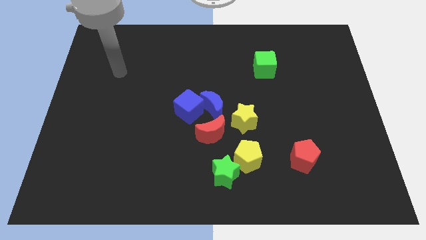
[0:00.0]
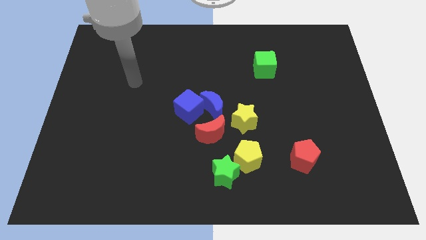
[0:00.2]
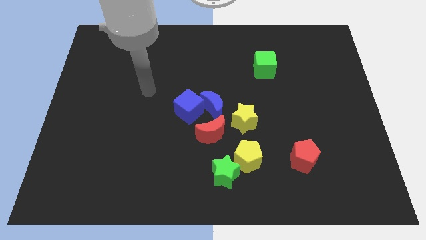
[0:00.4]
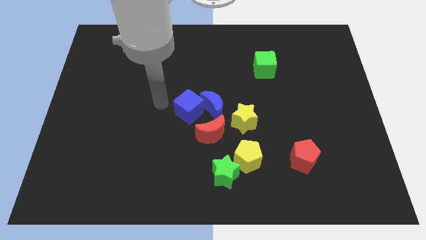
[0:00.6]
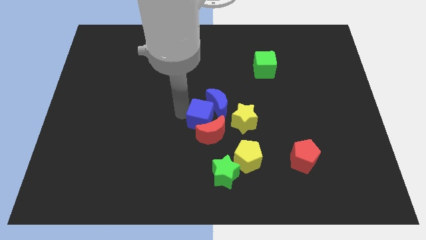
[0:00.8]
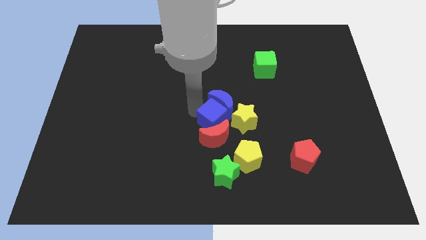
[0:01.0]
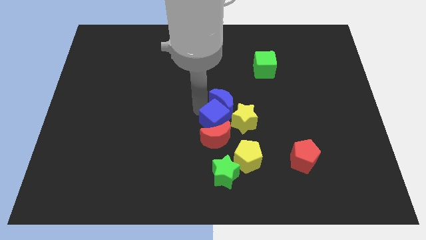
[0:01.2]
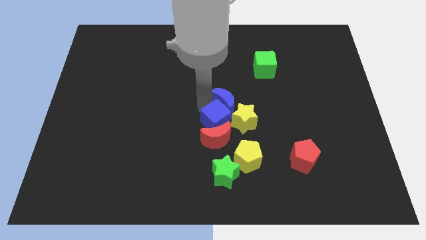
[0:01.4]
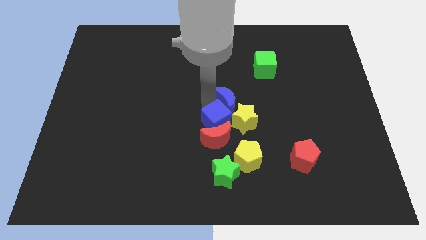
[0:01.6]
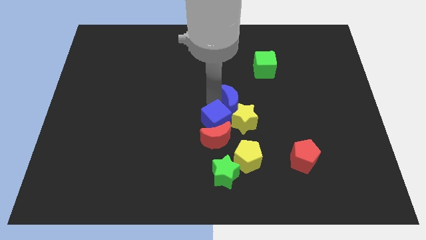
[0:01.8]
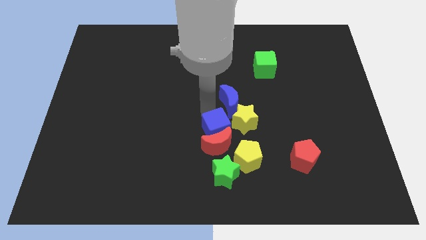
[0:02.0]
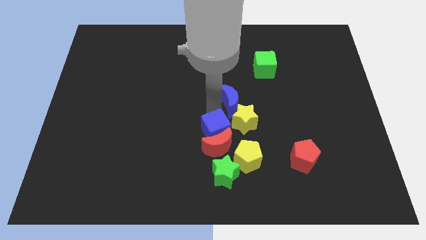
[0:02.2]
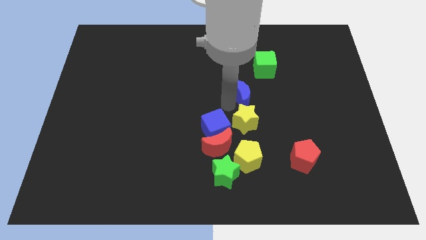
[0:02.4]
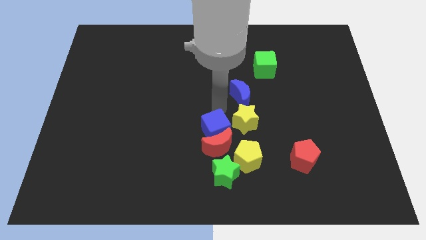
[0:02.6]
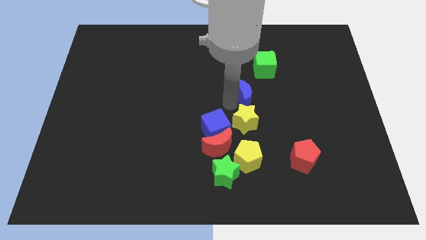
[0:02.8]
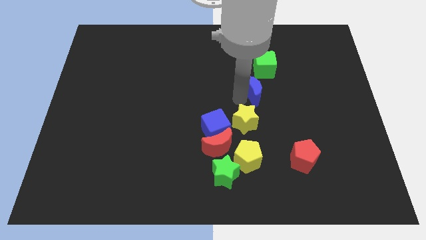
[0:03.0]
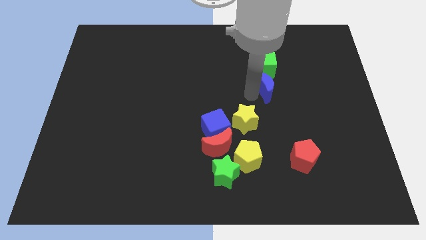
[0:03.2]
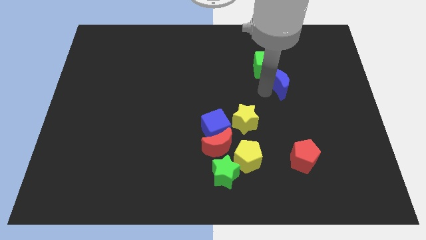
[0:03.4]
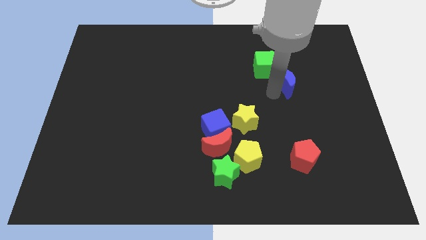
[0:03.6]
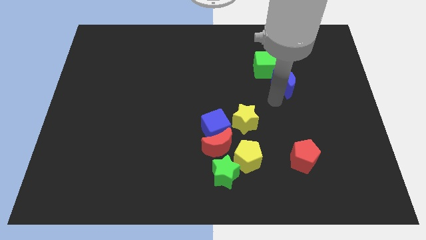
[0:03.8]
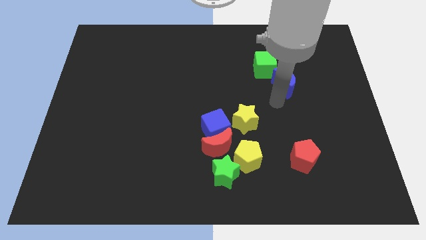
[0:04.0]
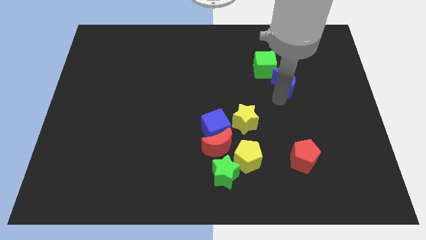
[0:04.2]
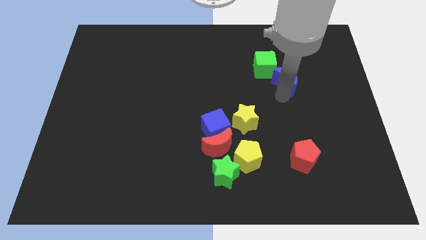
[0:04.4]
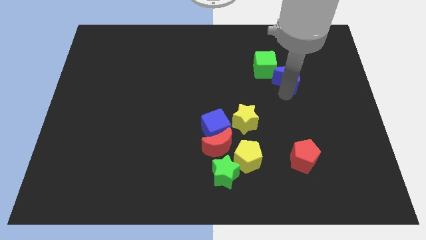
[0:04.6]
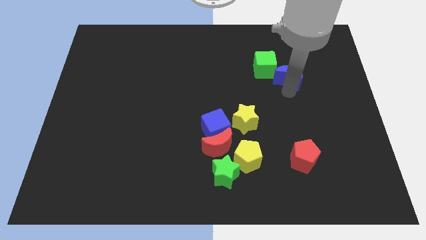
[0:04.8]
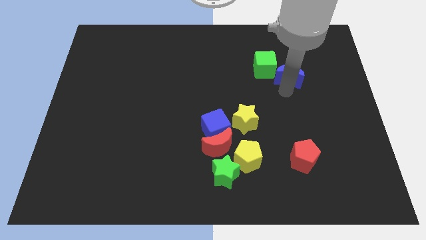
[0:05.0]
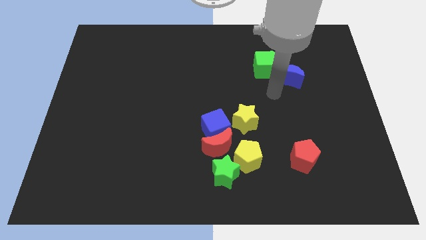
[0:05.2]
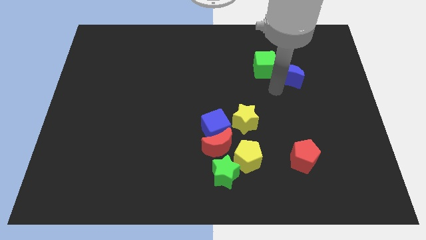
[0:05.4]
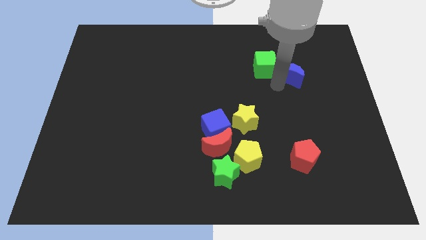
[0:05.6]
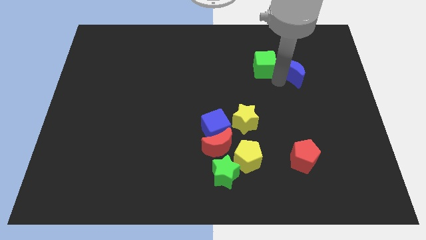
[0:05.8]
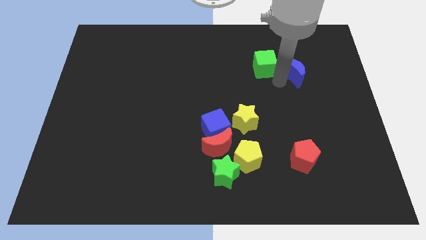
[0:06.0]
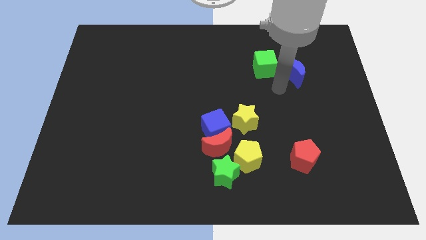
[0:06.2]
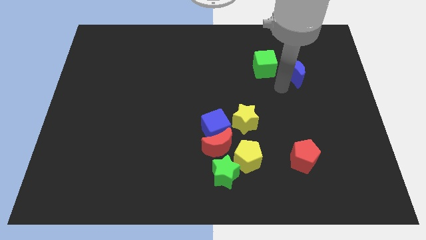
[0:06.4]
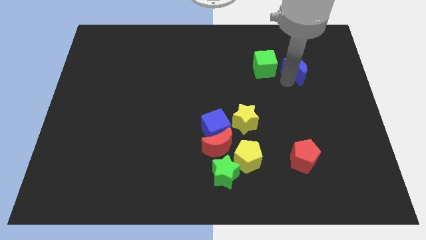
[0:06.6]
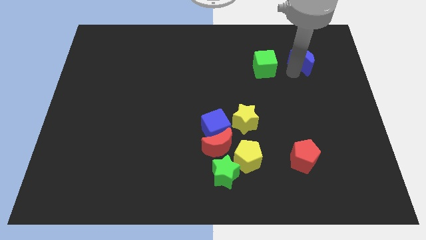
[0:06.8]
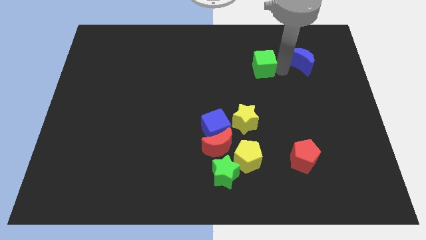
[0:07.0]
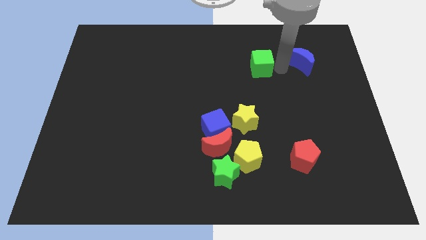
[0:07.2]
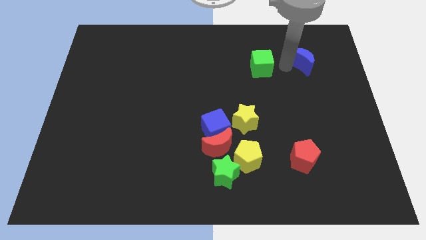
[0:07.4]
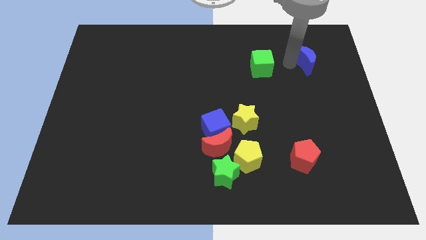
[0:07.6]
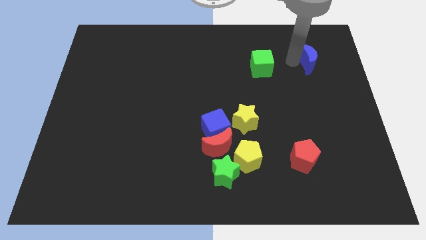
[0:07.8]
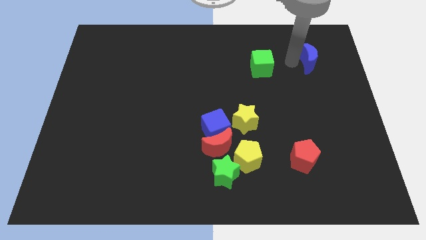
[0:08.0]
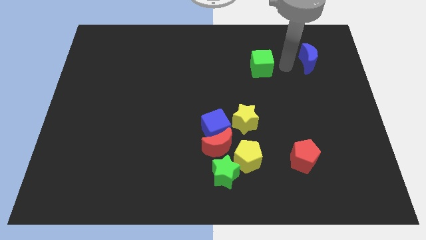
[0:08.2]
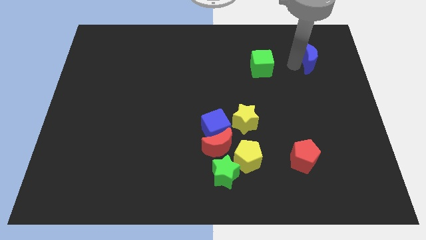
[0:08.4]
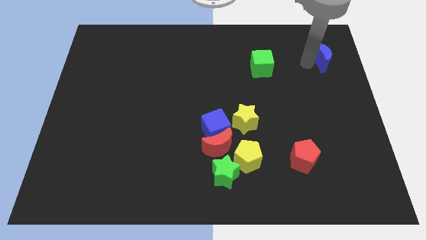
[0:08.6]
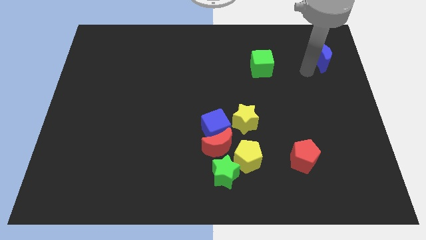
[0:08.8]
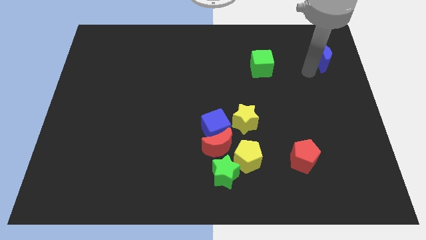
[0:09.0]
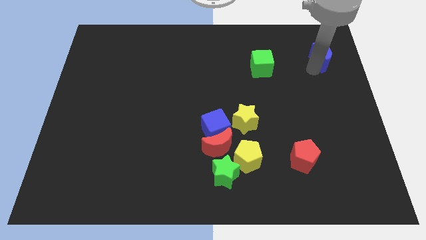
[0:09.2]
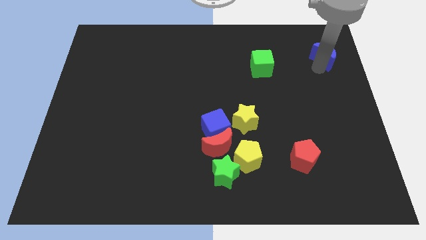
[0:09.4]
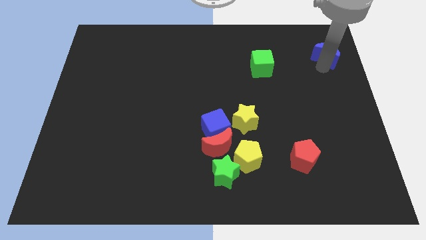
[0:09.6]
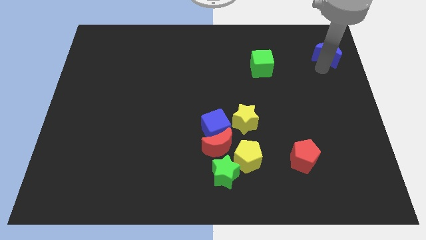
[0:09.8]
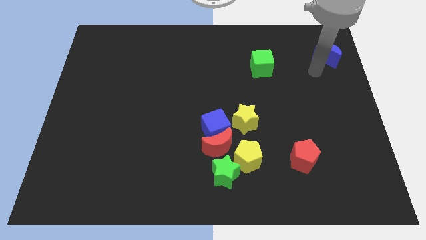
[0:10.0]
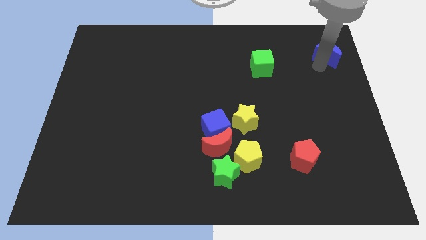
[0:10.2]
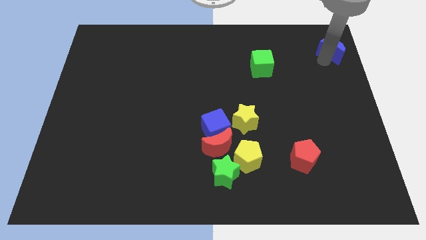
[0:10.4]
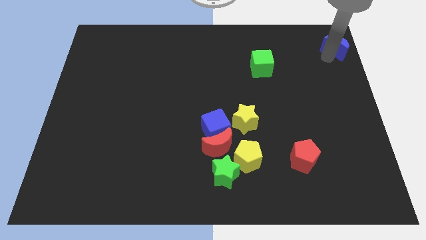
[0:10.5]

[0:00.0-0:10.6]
put the blue moon to the top right corner

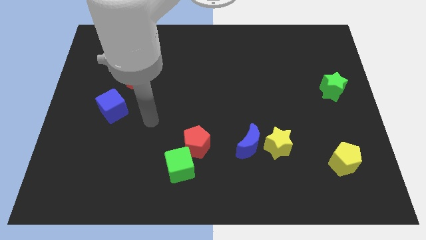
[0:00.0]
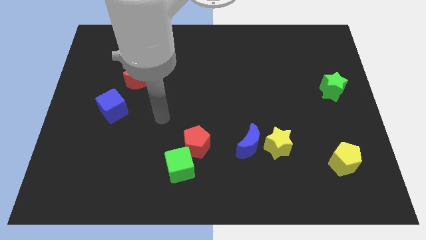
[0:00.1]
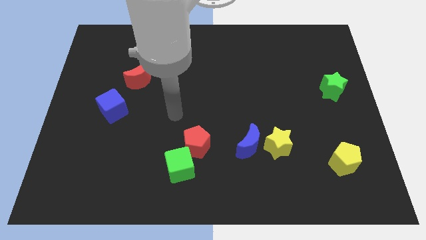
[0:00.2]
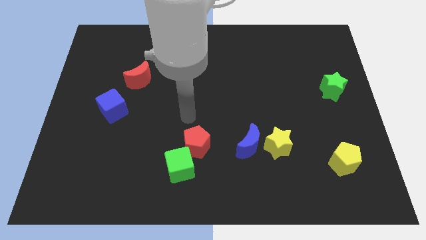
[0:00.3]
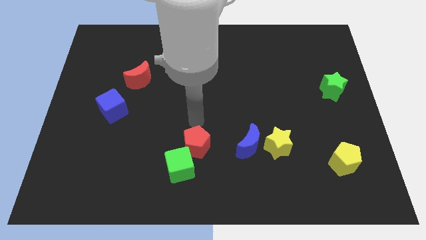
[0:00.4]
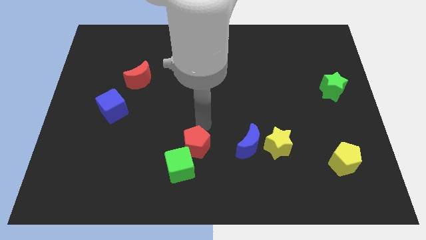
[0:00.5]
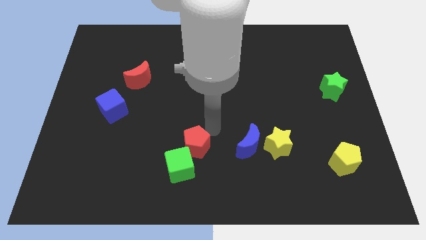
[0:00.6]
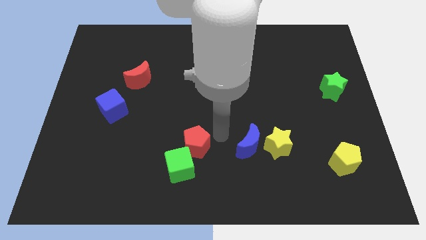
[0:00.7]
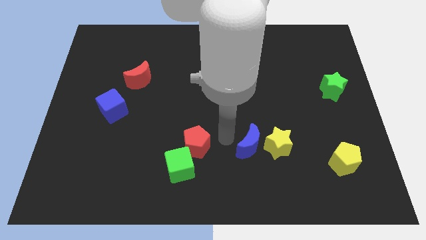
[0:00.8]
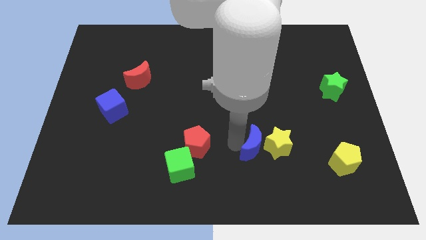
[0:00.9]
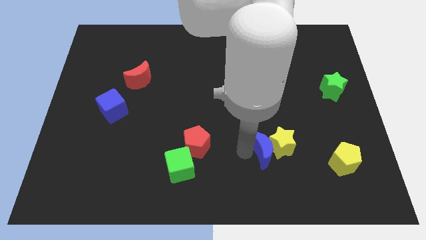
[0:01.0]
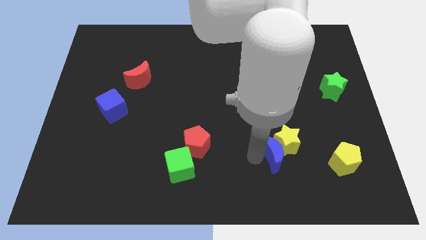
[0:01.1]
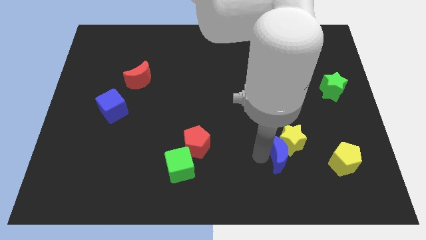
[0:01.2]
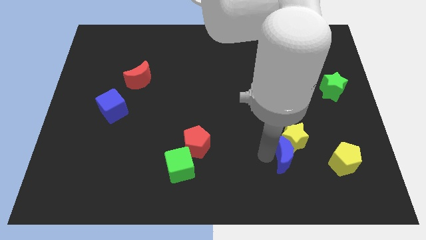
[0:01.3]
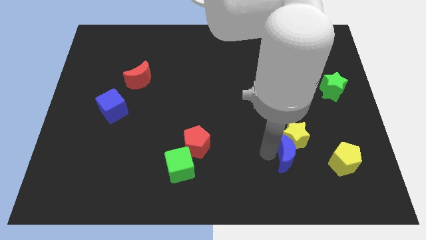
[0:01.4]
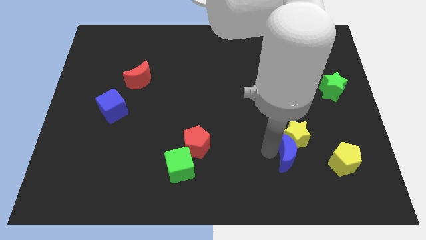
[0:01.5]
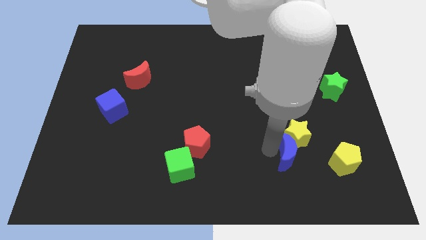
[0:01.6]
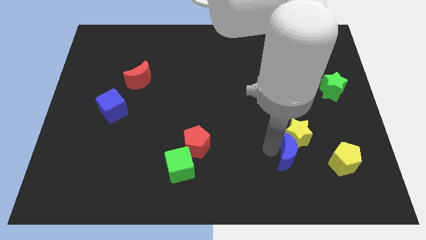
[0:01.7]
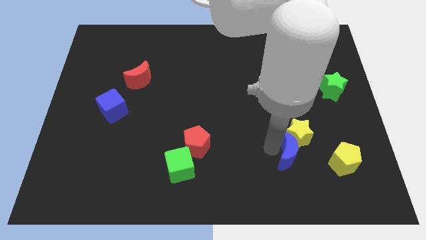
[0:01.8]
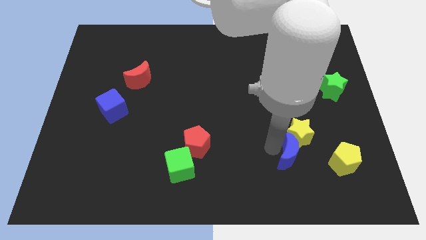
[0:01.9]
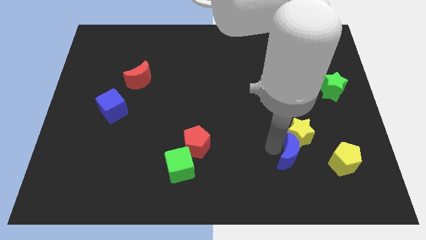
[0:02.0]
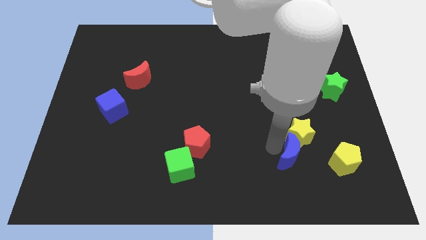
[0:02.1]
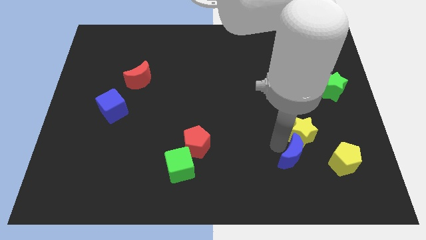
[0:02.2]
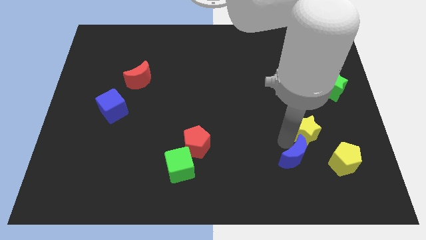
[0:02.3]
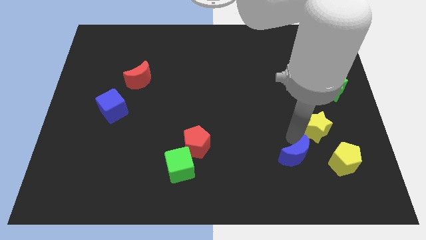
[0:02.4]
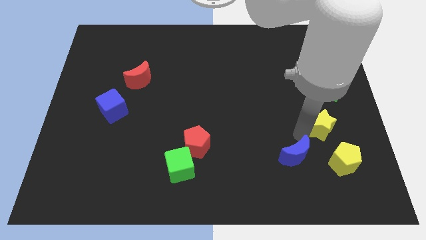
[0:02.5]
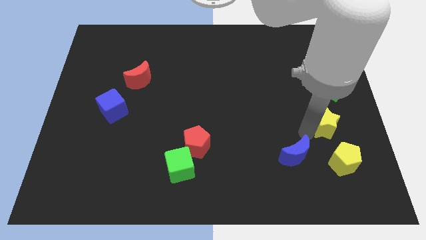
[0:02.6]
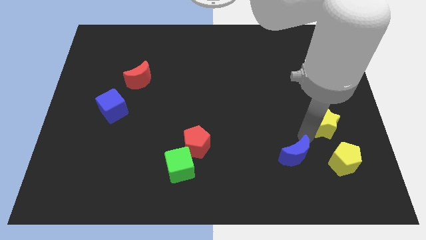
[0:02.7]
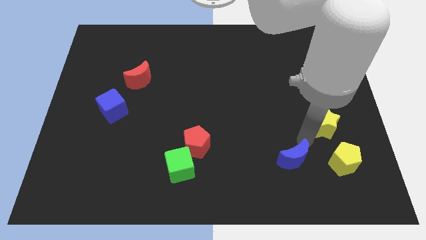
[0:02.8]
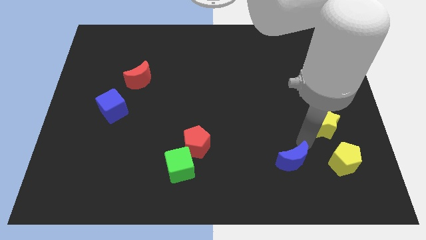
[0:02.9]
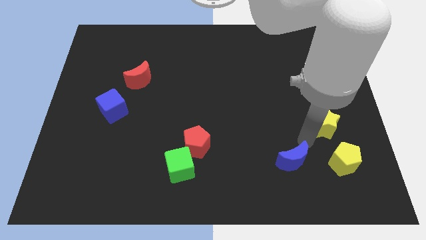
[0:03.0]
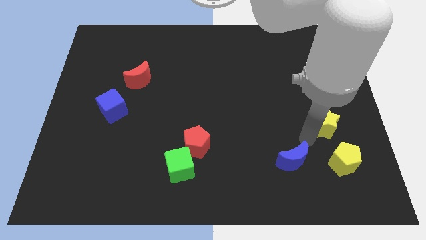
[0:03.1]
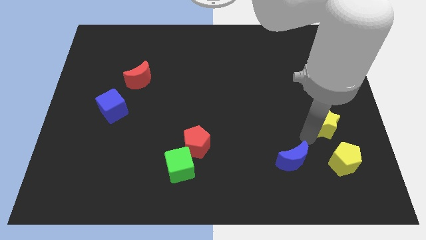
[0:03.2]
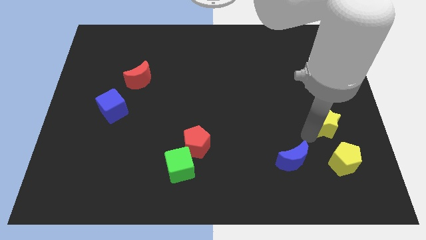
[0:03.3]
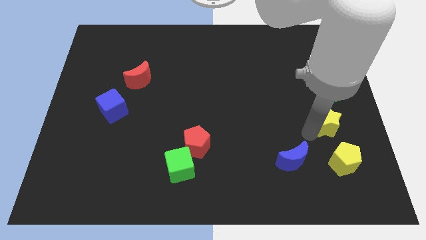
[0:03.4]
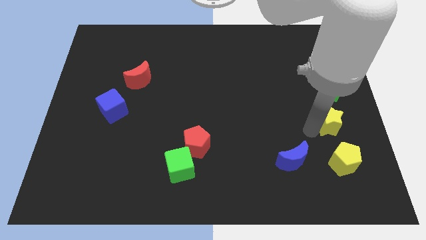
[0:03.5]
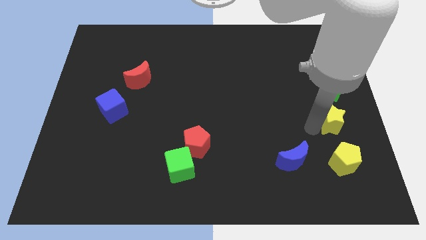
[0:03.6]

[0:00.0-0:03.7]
push the yellow star to the center right
